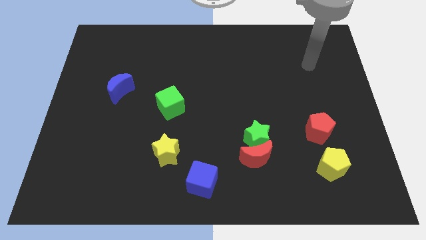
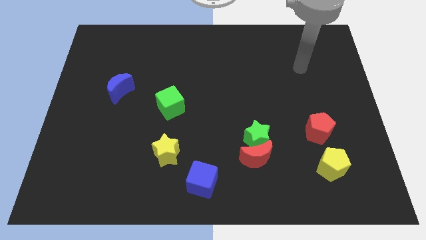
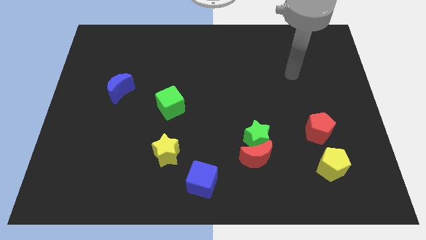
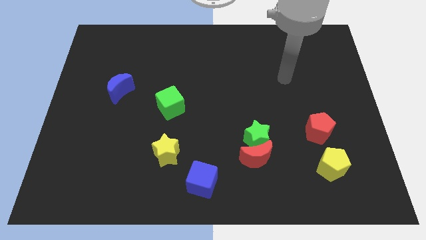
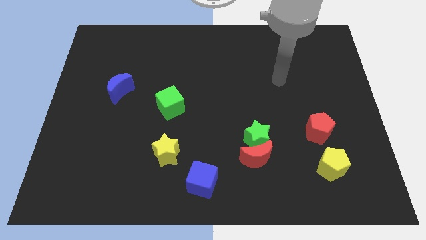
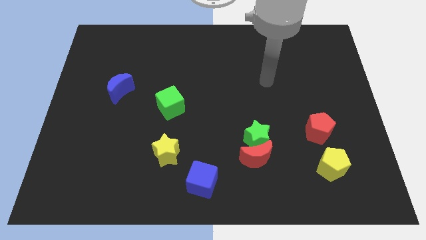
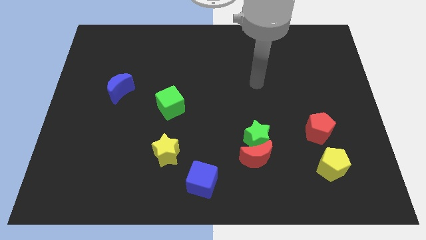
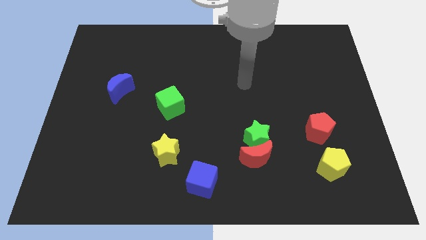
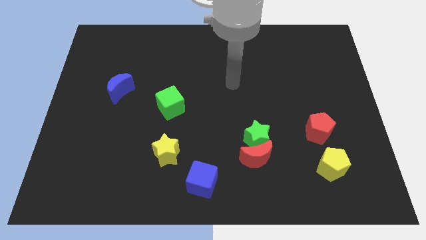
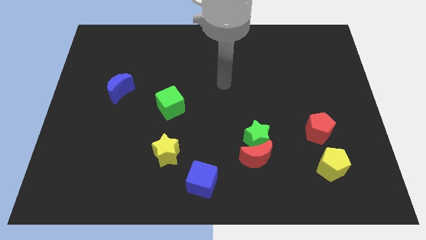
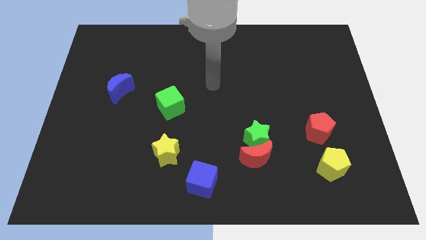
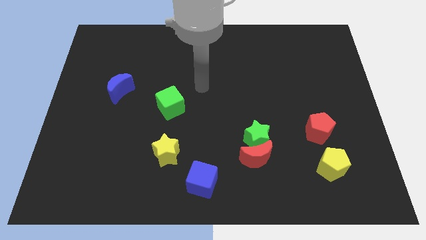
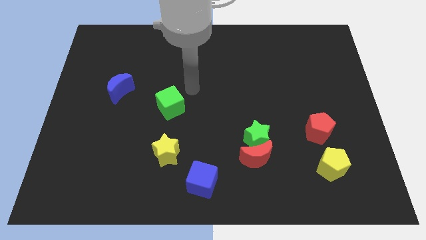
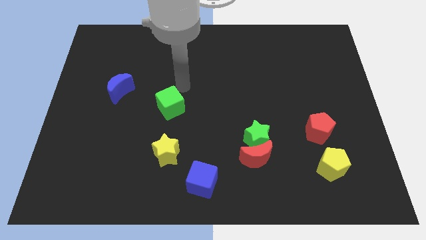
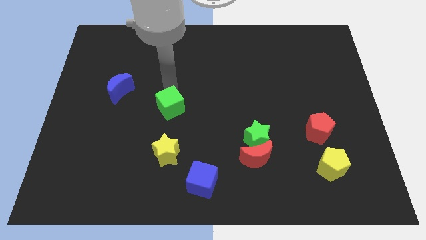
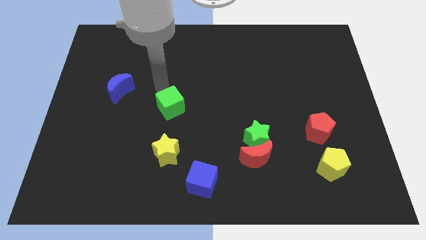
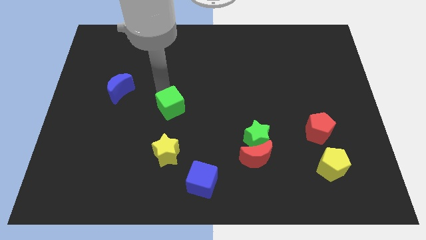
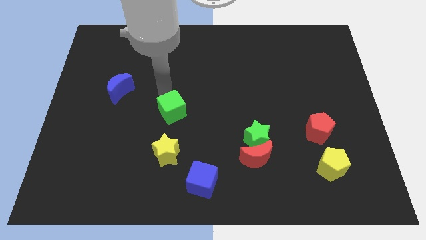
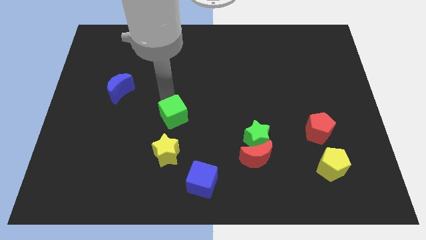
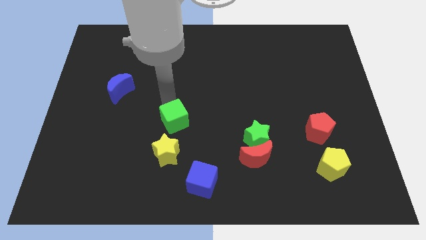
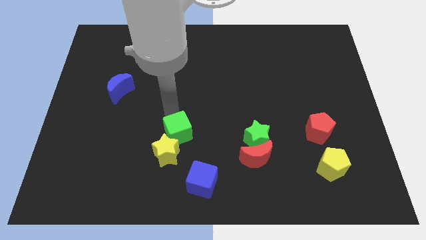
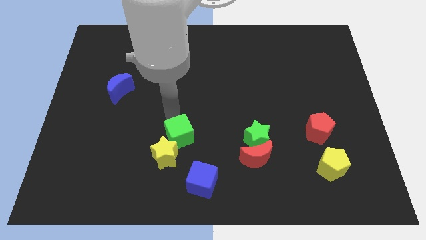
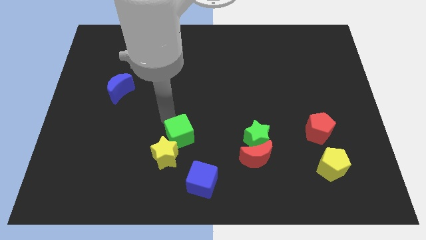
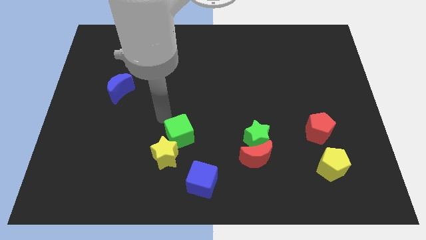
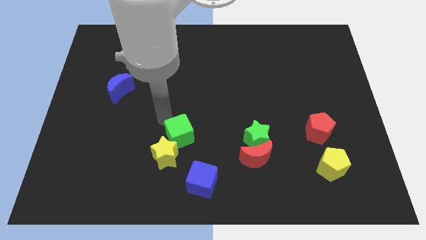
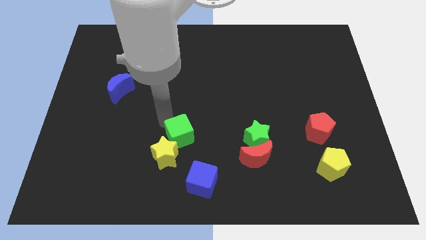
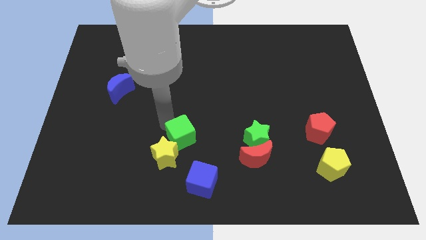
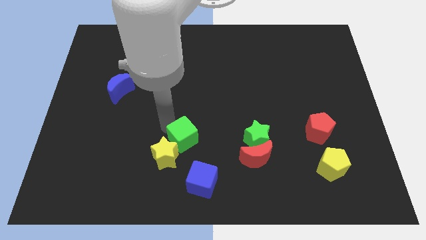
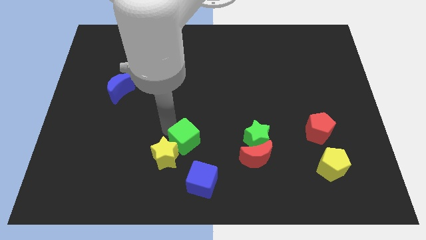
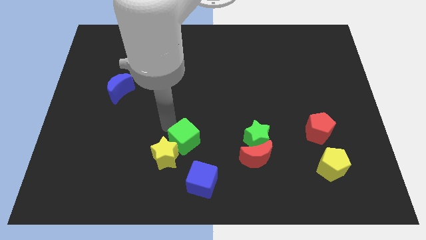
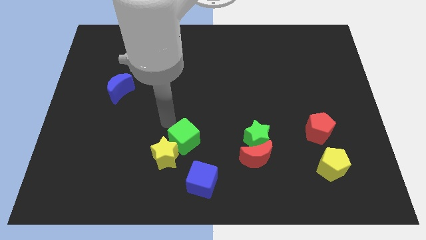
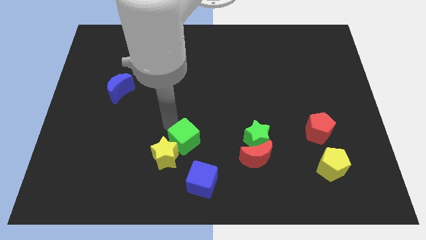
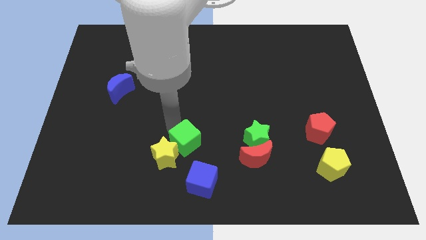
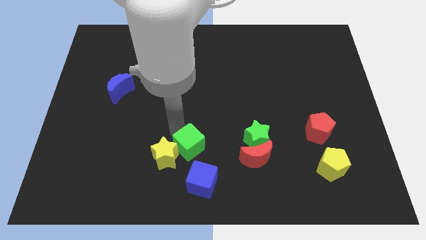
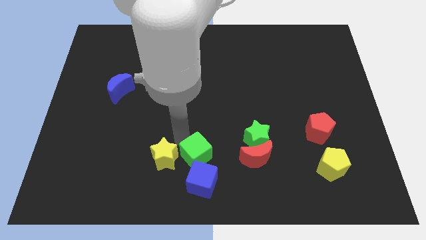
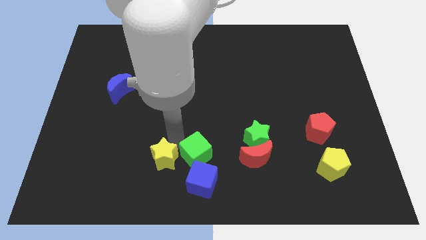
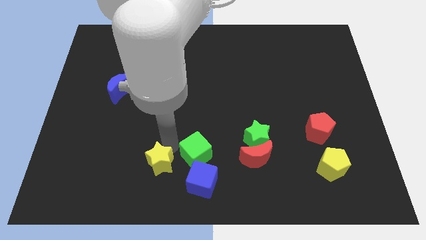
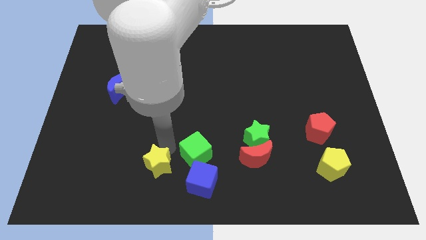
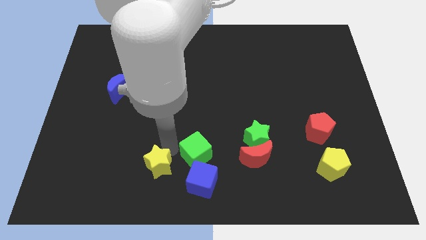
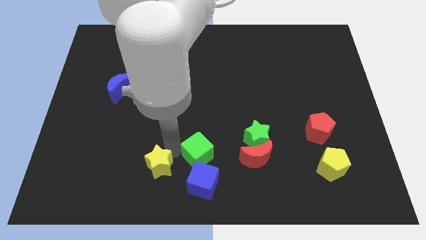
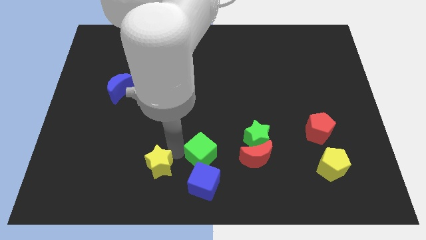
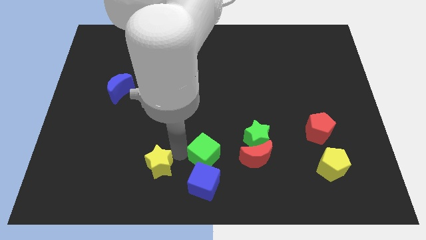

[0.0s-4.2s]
push the green cube diagonally up and to the right of the blue cube

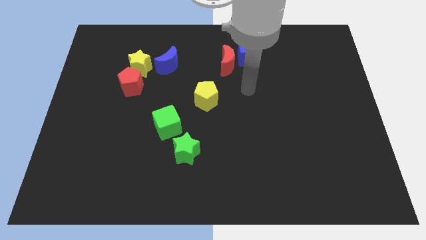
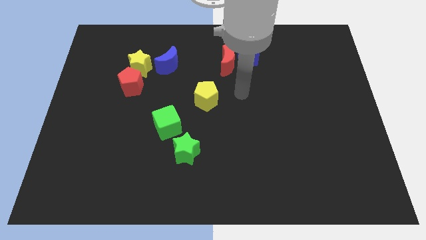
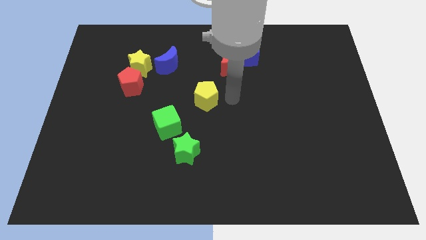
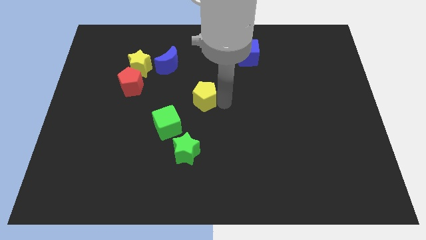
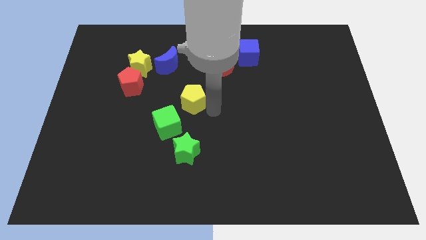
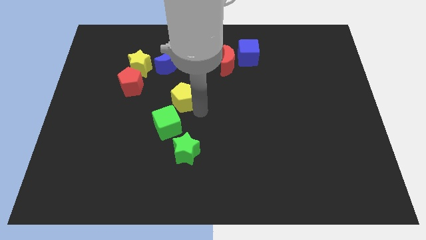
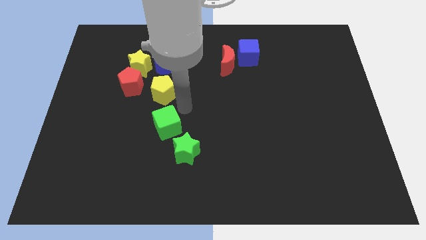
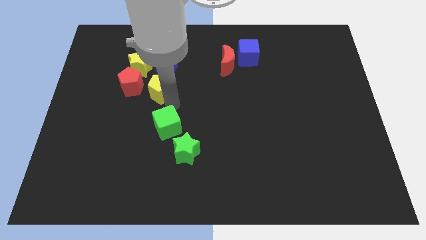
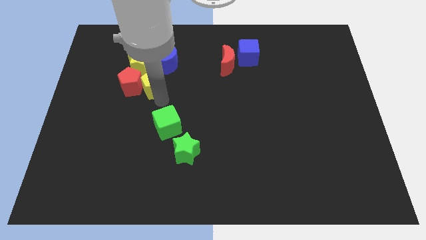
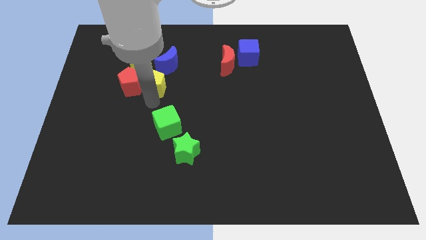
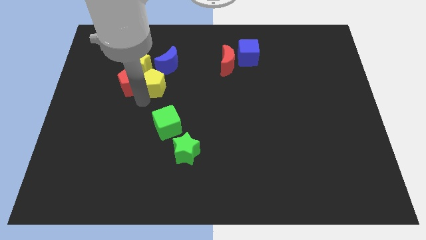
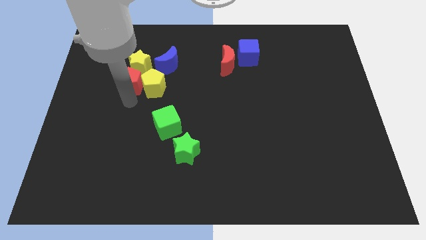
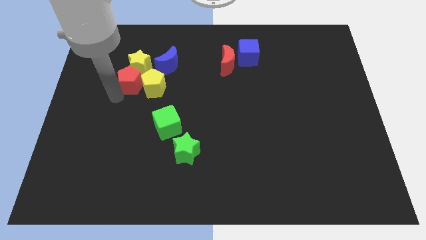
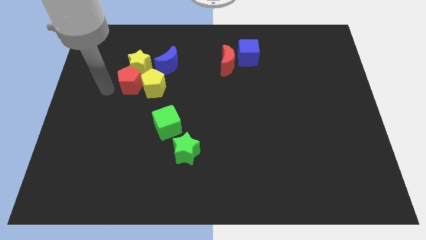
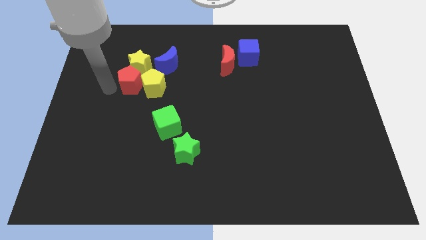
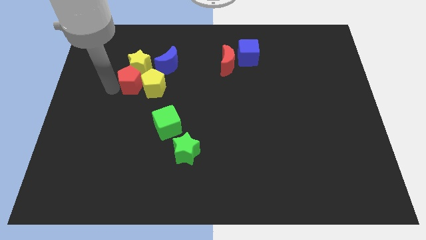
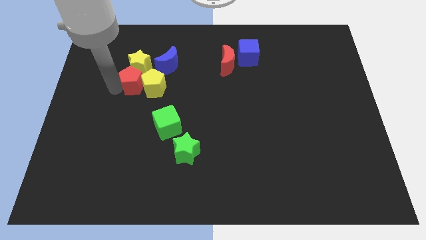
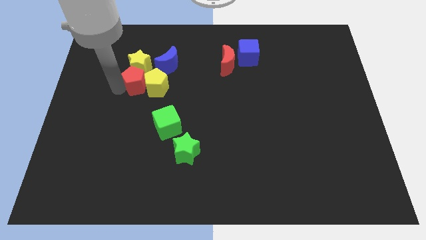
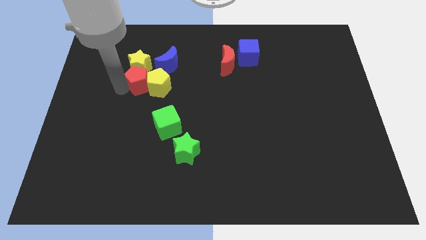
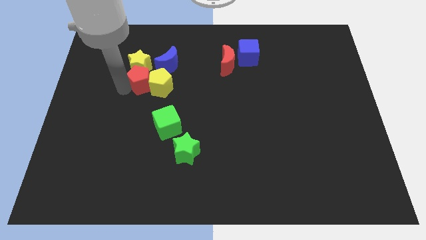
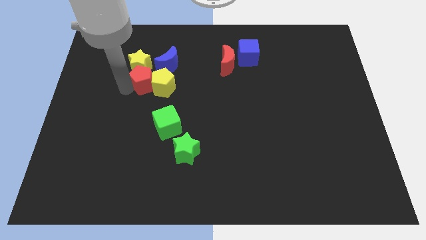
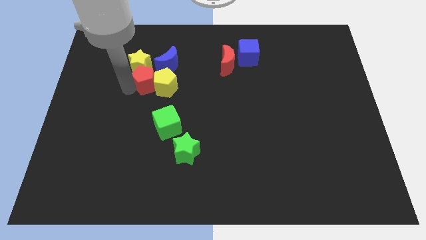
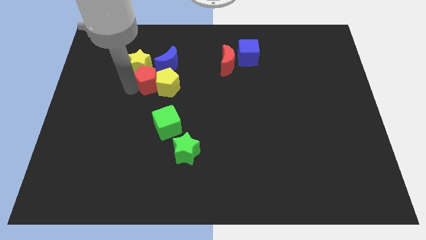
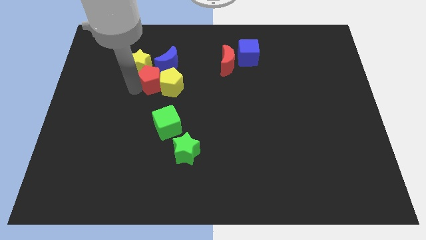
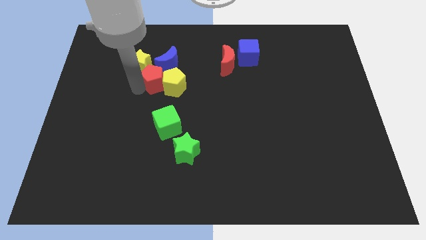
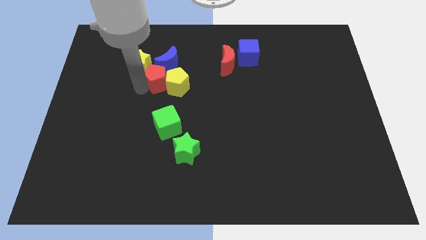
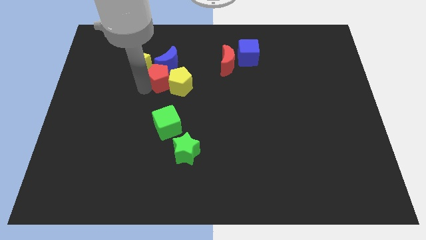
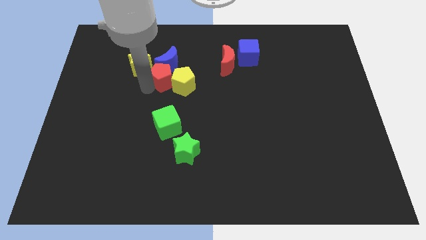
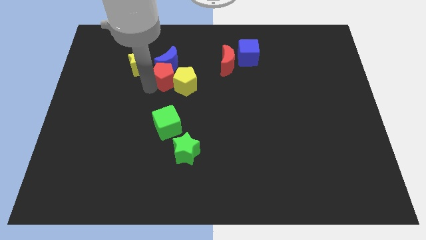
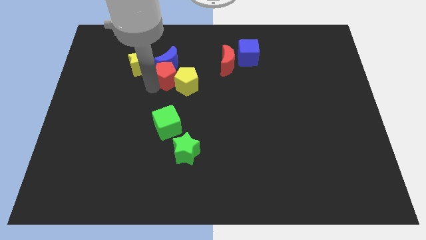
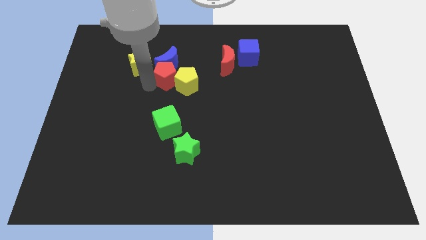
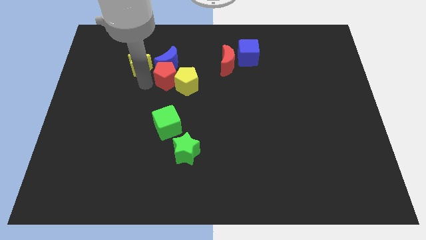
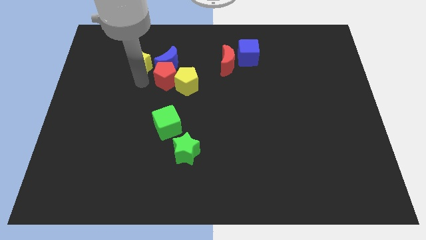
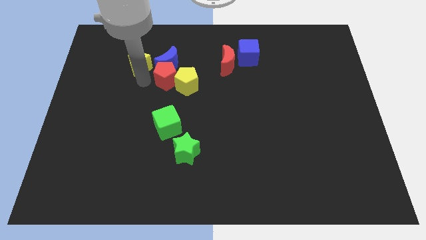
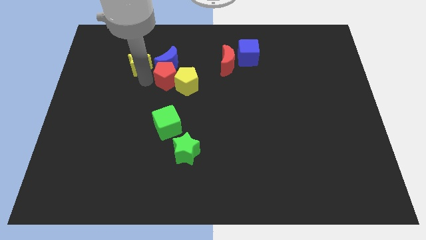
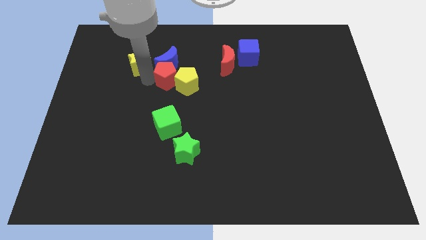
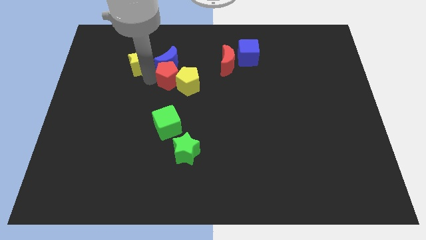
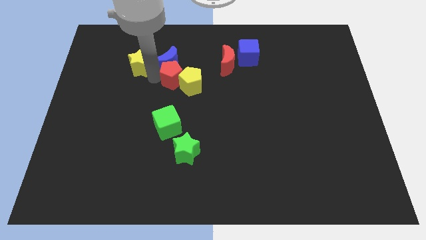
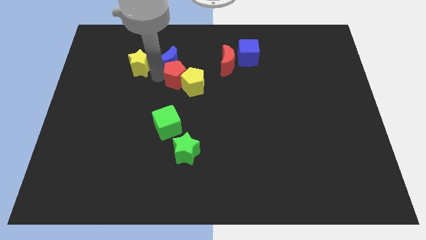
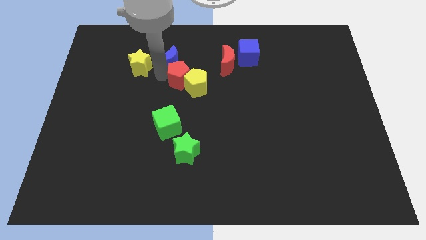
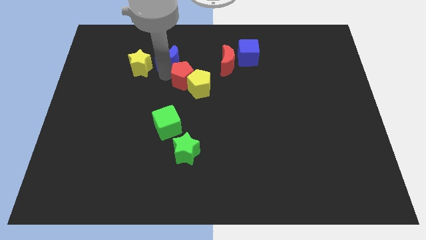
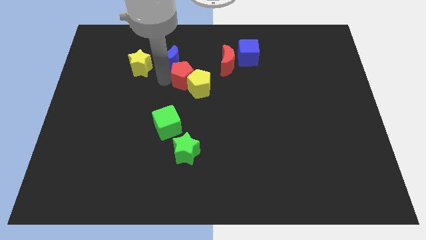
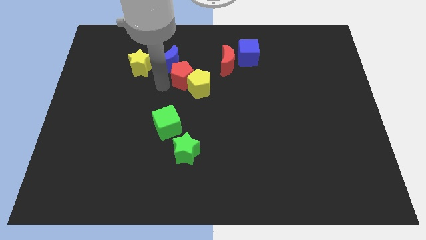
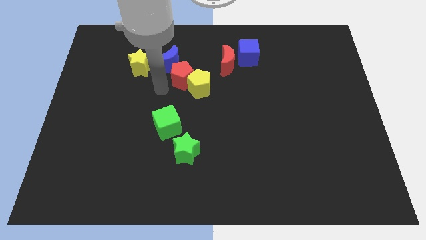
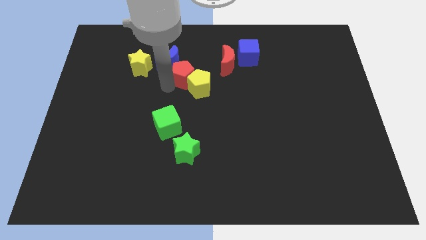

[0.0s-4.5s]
move the red pentagon to the right of the blue moon
